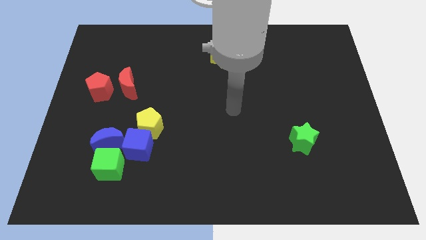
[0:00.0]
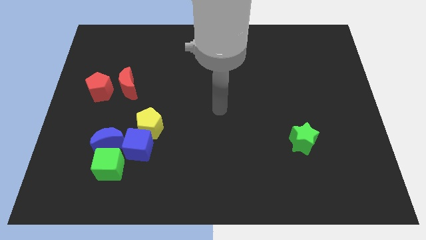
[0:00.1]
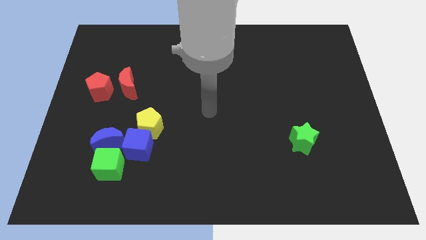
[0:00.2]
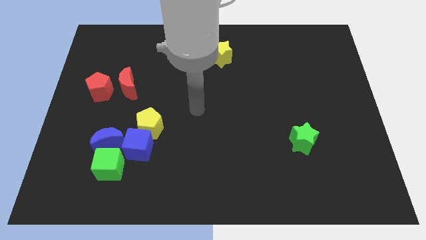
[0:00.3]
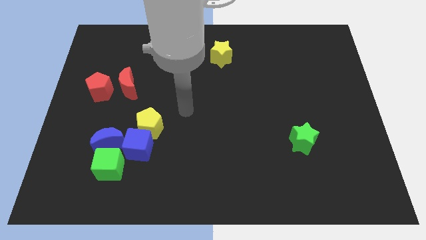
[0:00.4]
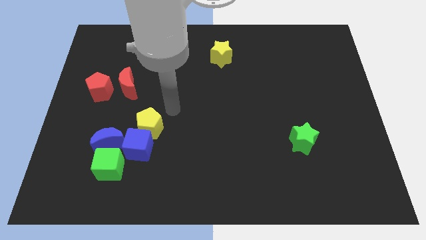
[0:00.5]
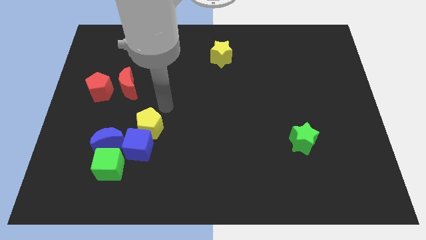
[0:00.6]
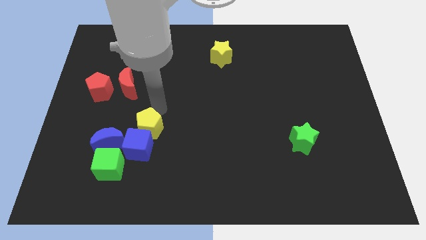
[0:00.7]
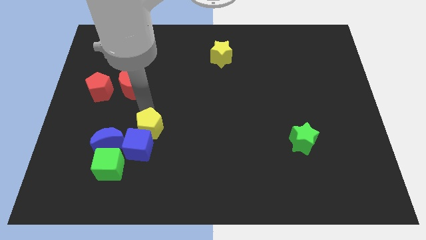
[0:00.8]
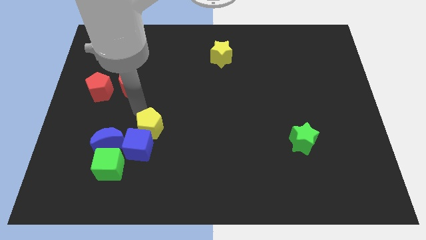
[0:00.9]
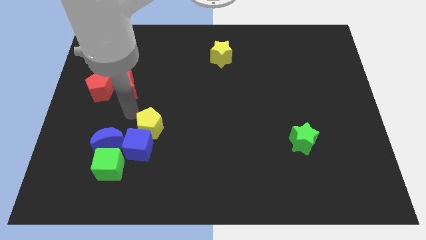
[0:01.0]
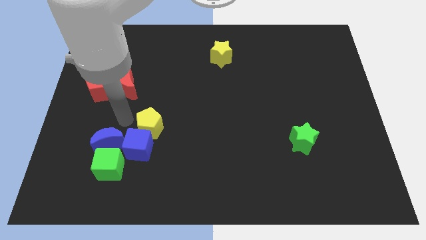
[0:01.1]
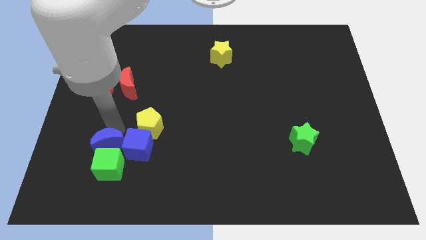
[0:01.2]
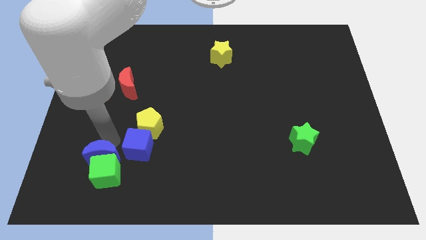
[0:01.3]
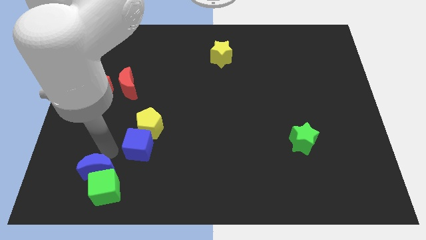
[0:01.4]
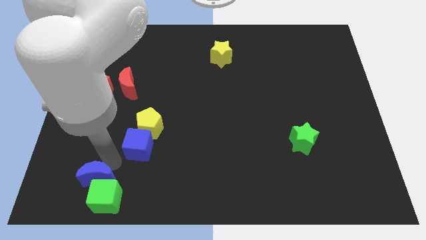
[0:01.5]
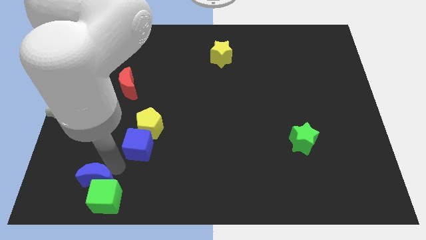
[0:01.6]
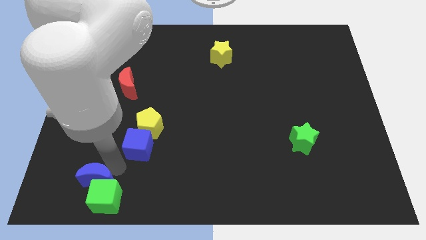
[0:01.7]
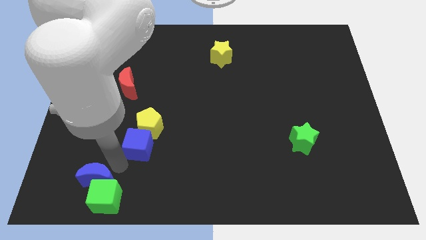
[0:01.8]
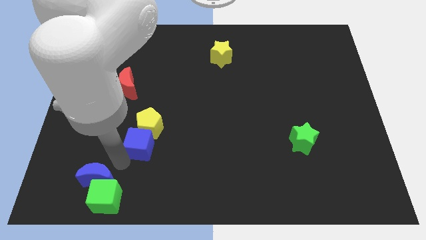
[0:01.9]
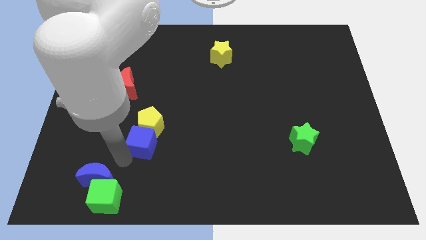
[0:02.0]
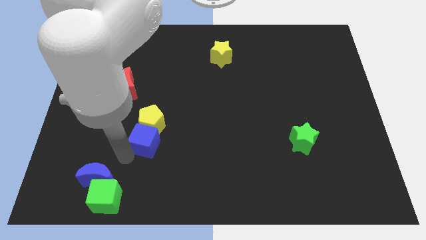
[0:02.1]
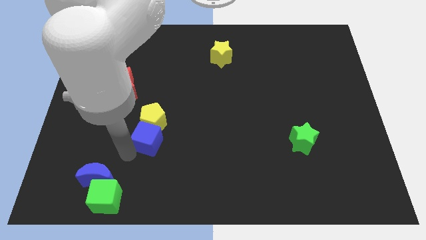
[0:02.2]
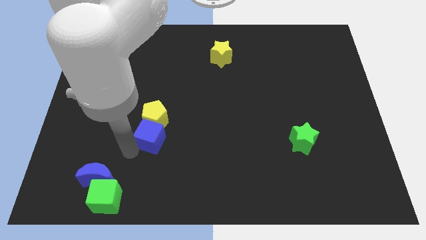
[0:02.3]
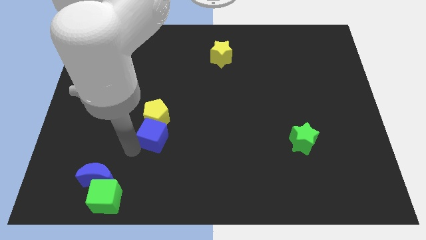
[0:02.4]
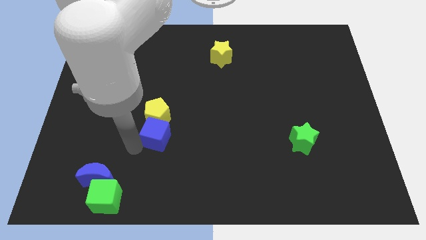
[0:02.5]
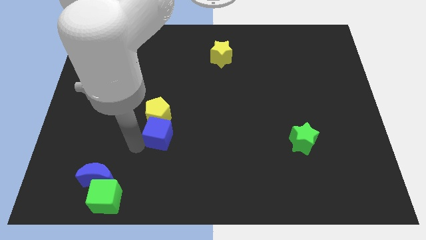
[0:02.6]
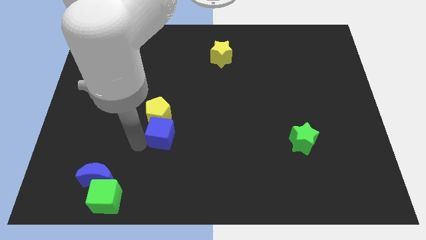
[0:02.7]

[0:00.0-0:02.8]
separate the blue cube from the yellow pentagon, blue moon, and green cube

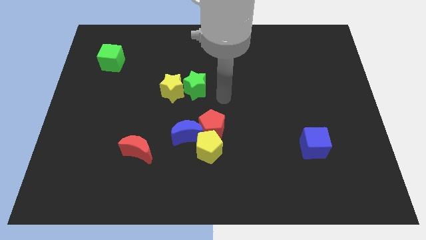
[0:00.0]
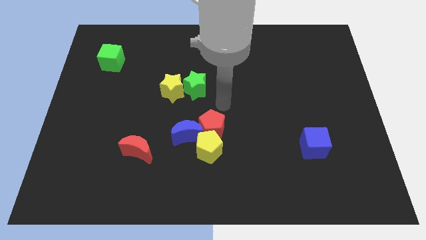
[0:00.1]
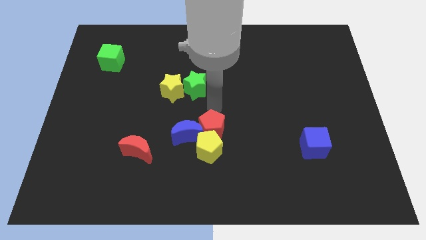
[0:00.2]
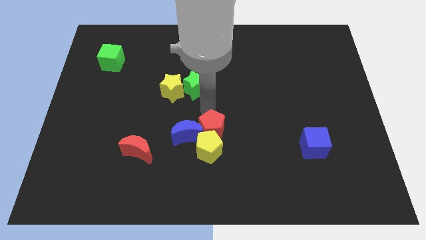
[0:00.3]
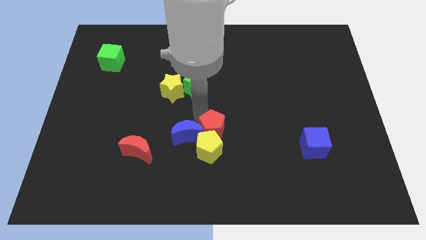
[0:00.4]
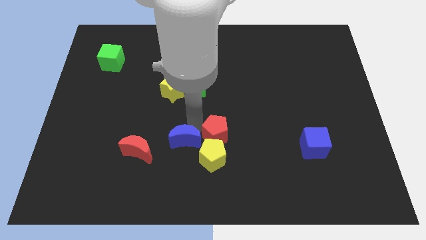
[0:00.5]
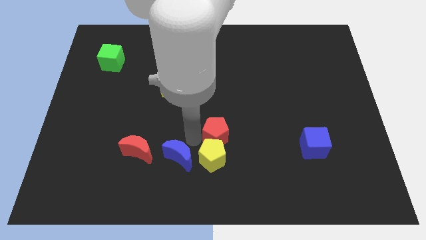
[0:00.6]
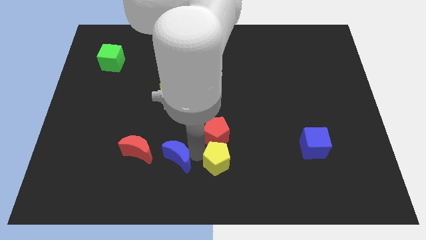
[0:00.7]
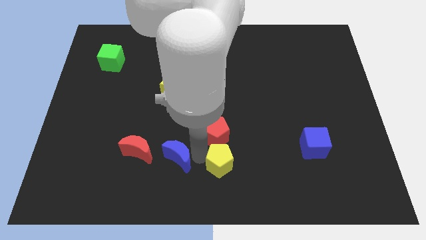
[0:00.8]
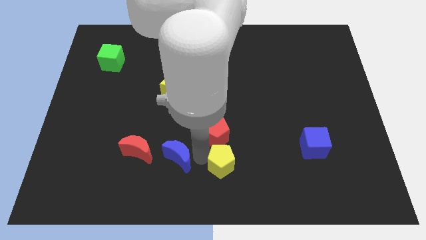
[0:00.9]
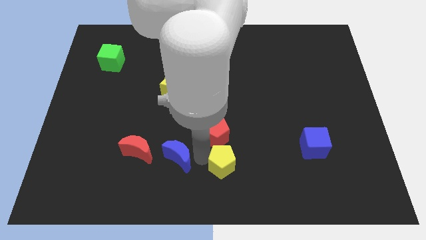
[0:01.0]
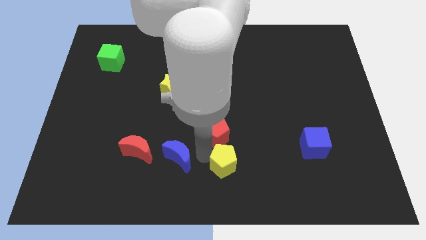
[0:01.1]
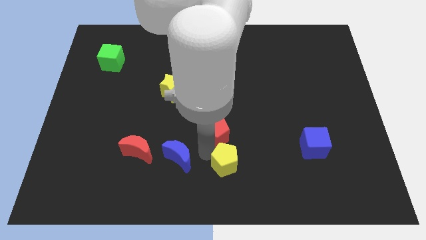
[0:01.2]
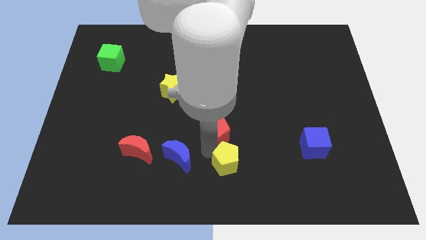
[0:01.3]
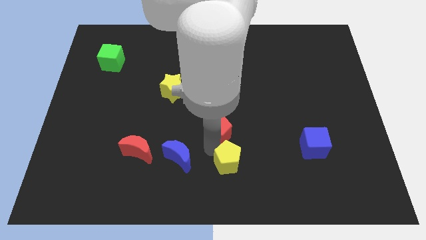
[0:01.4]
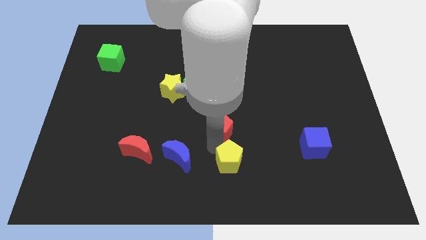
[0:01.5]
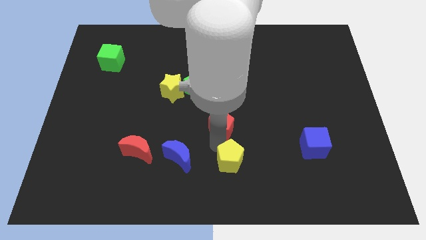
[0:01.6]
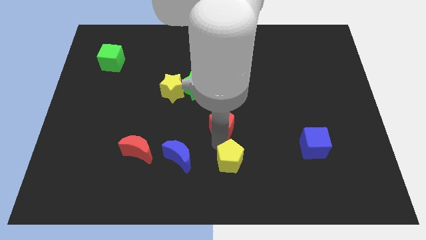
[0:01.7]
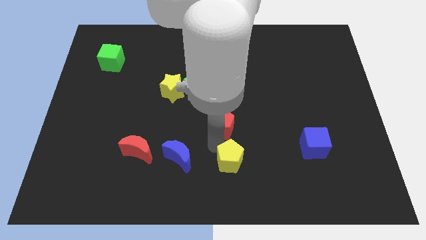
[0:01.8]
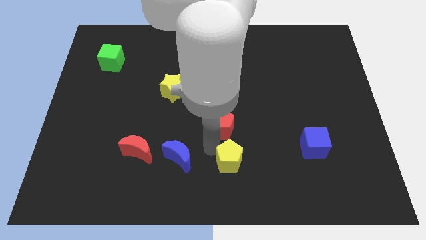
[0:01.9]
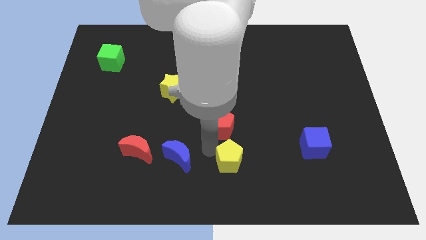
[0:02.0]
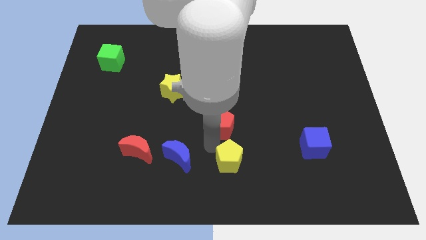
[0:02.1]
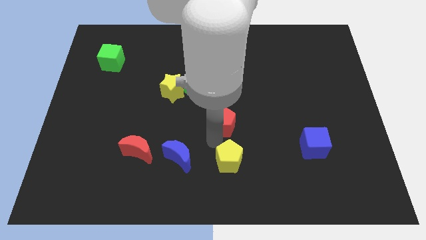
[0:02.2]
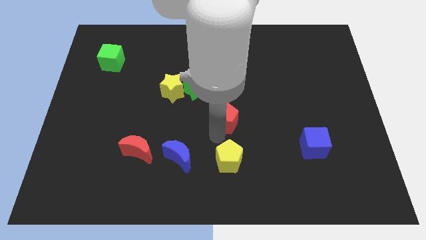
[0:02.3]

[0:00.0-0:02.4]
separate the red pentagon from the yellow pentagon and blue moon

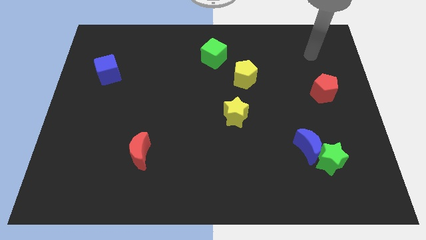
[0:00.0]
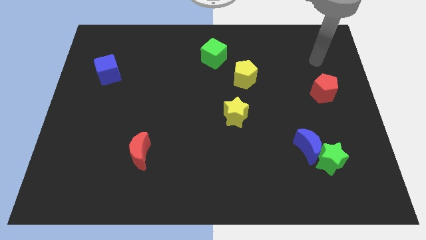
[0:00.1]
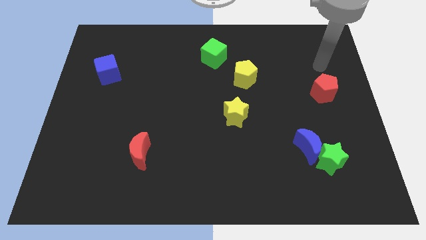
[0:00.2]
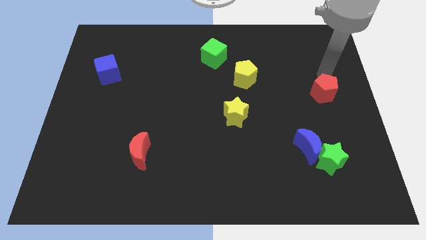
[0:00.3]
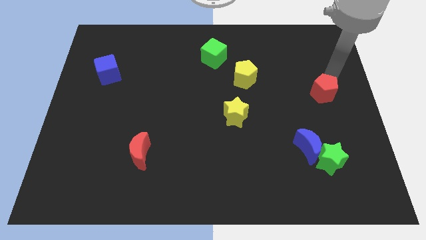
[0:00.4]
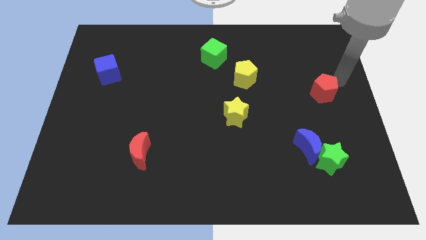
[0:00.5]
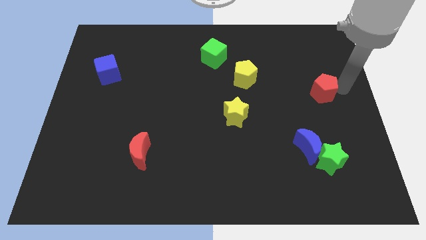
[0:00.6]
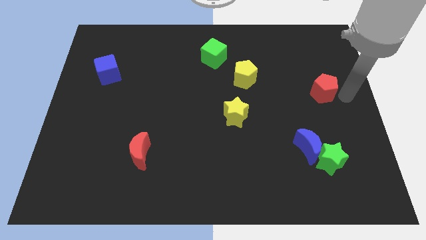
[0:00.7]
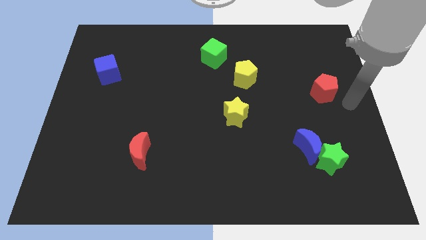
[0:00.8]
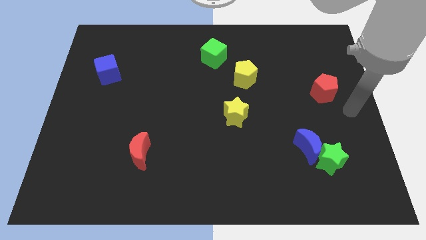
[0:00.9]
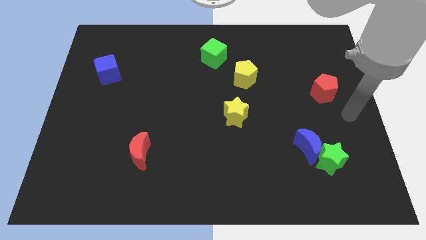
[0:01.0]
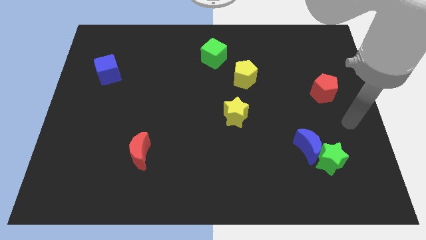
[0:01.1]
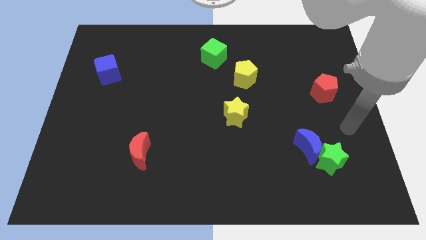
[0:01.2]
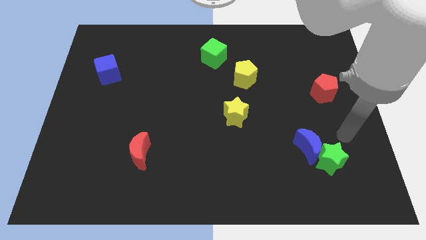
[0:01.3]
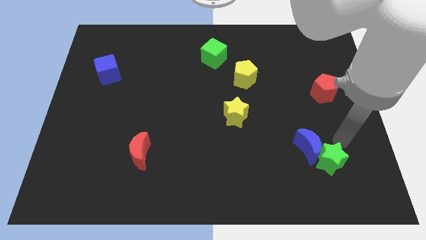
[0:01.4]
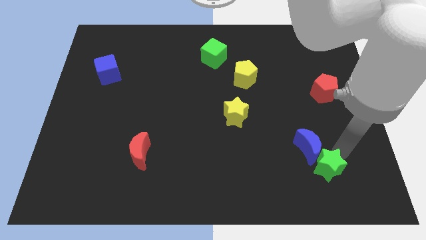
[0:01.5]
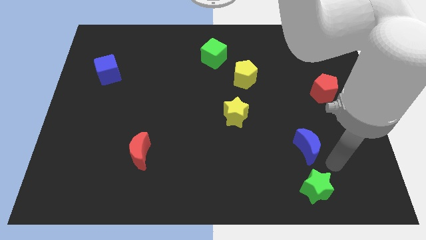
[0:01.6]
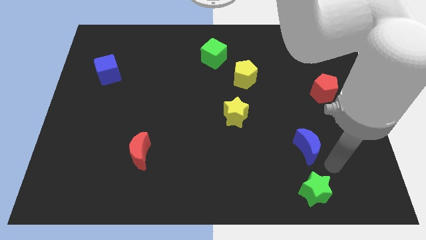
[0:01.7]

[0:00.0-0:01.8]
separate the blue moon from the green star

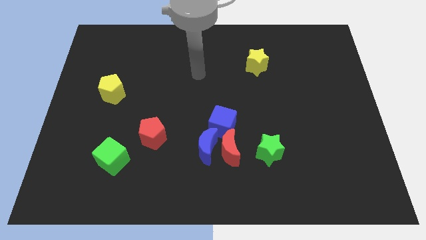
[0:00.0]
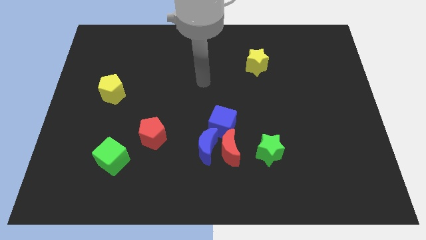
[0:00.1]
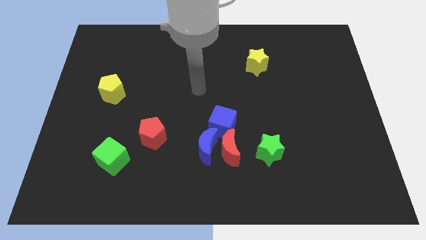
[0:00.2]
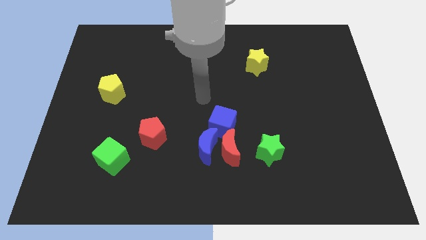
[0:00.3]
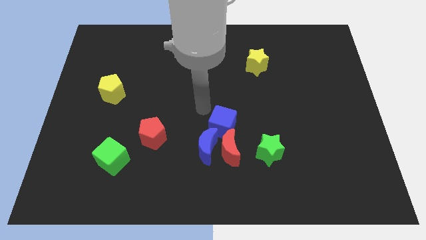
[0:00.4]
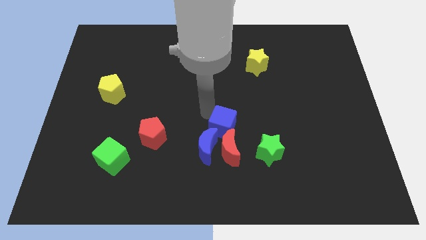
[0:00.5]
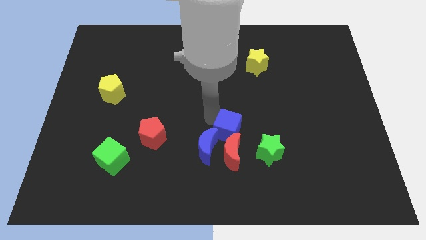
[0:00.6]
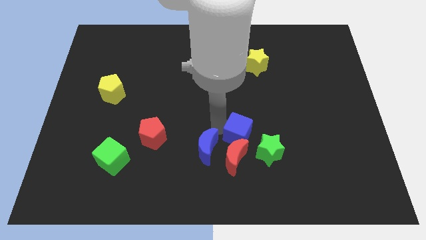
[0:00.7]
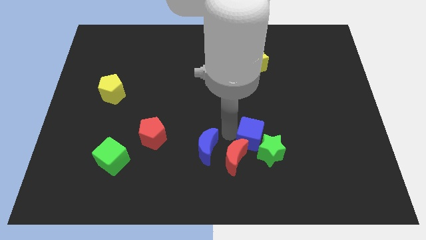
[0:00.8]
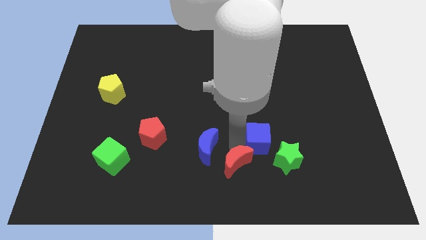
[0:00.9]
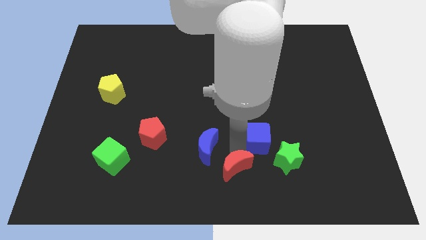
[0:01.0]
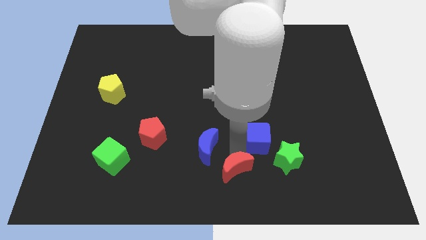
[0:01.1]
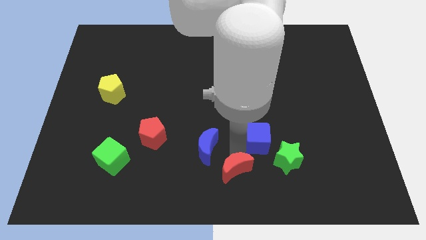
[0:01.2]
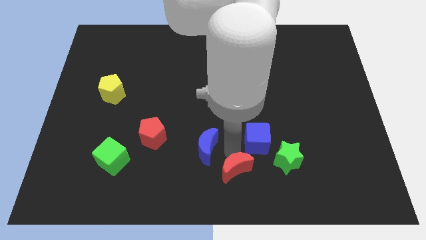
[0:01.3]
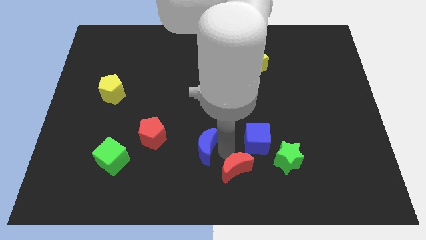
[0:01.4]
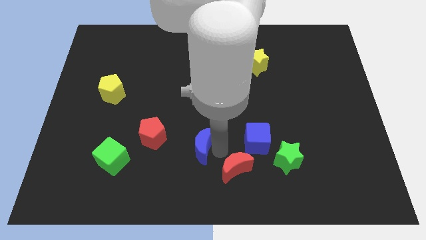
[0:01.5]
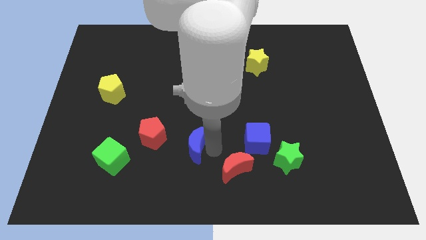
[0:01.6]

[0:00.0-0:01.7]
separate the blue moon from the red moon and blue cube

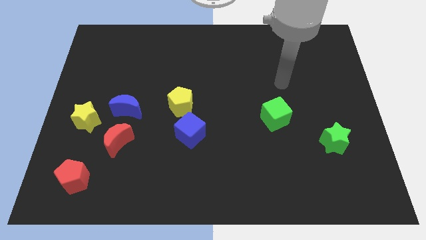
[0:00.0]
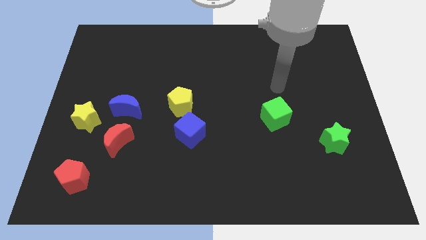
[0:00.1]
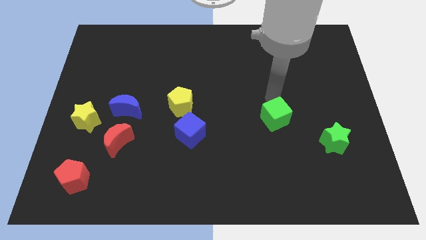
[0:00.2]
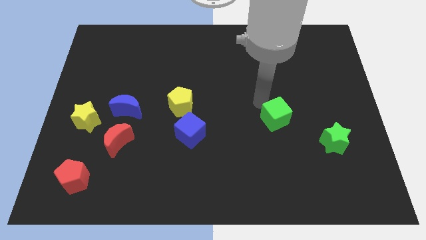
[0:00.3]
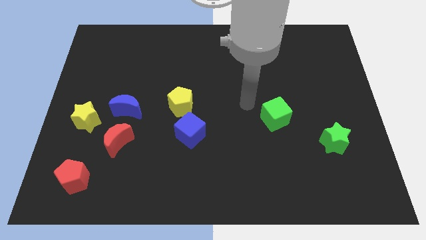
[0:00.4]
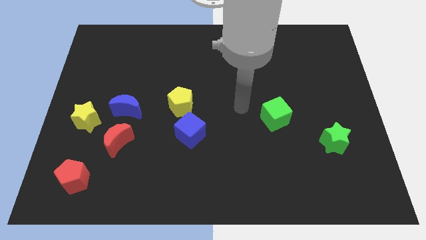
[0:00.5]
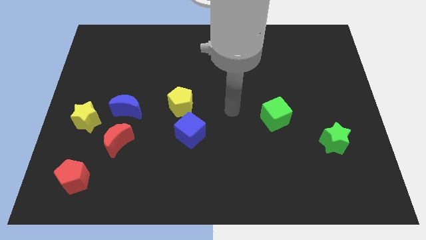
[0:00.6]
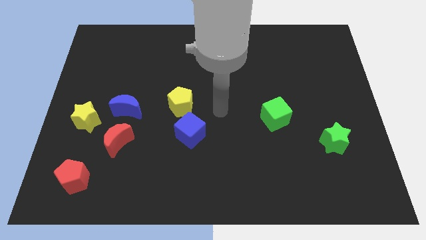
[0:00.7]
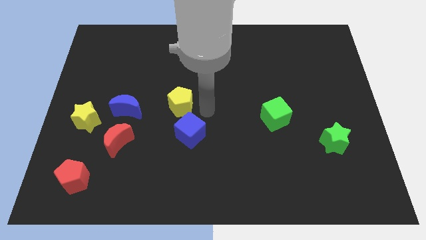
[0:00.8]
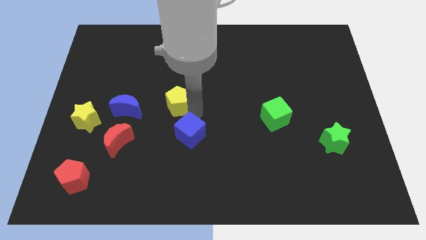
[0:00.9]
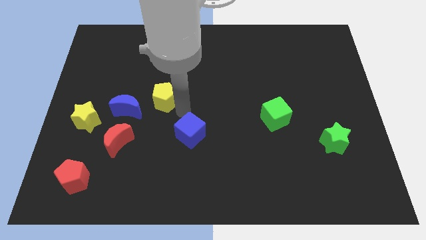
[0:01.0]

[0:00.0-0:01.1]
separate the blue cube from the yellow pentagon
